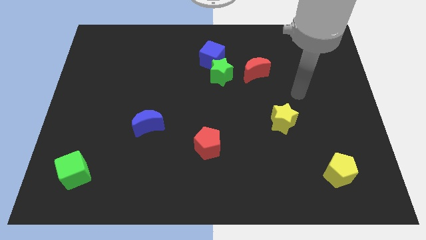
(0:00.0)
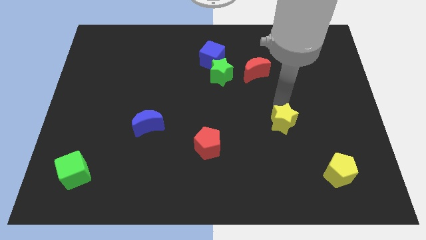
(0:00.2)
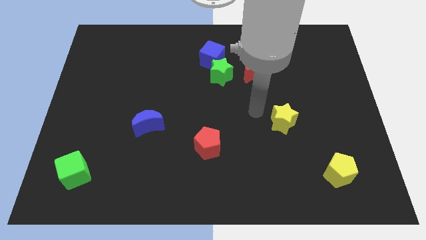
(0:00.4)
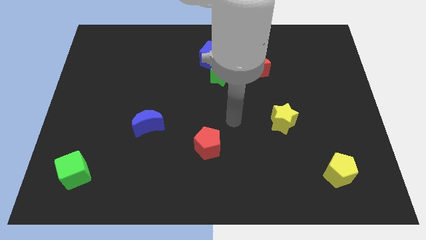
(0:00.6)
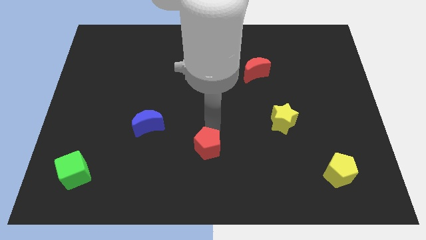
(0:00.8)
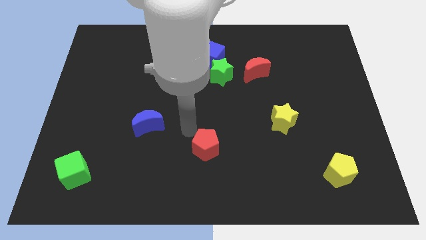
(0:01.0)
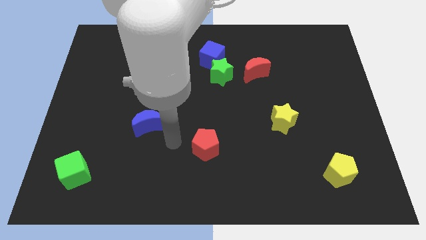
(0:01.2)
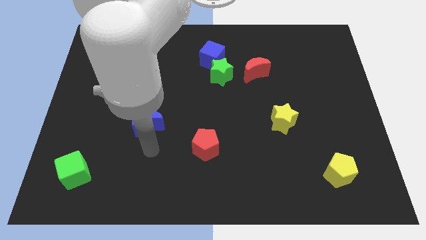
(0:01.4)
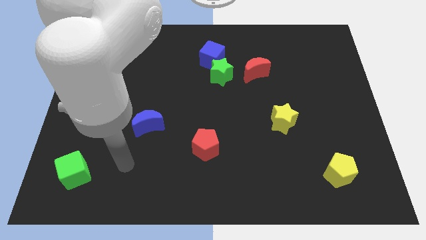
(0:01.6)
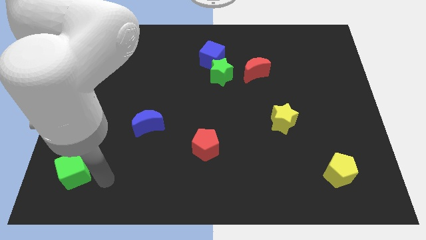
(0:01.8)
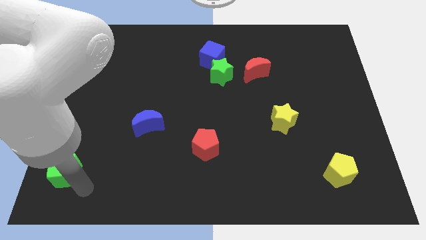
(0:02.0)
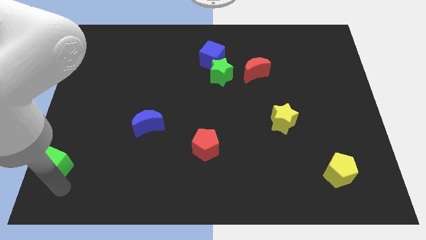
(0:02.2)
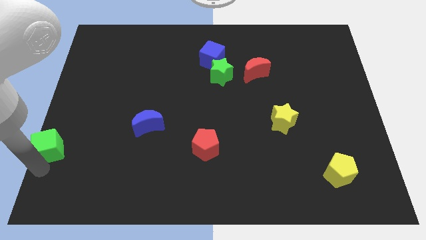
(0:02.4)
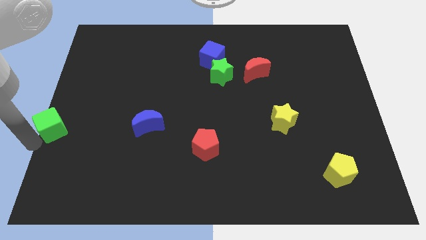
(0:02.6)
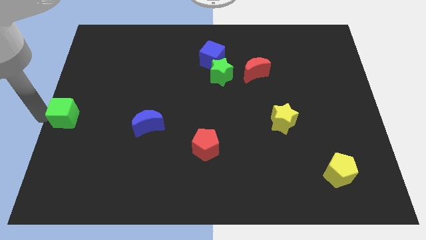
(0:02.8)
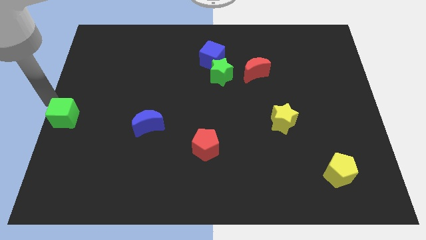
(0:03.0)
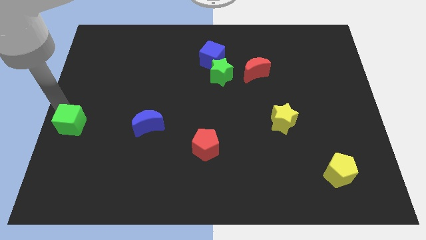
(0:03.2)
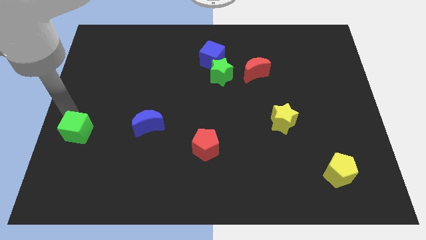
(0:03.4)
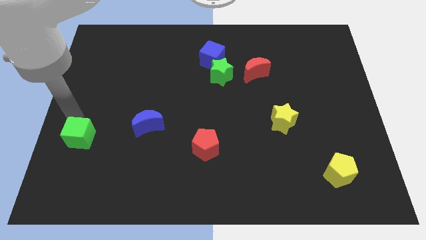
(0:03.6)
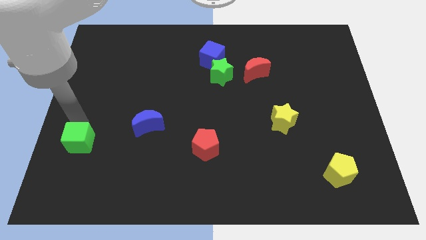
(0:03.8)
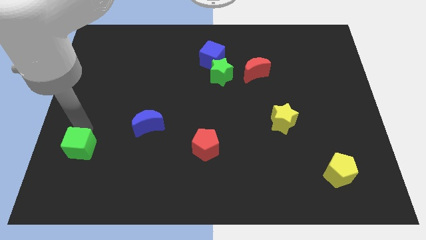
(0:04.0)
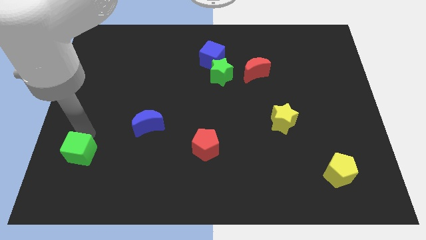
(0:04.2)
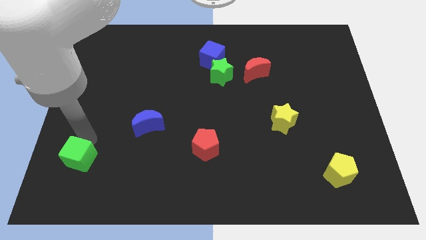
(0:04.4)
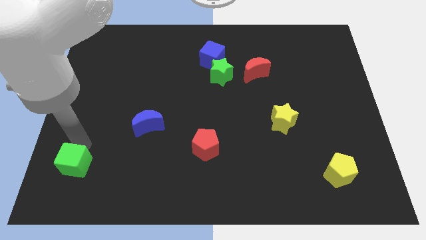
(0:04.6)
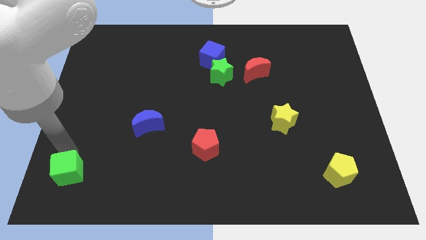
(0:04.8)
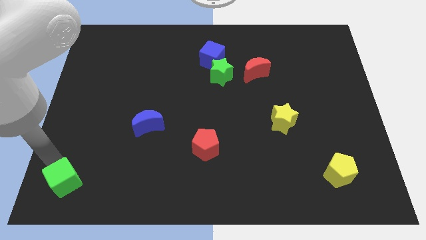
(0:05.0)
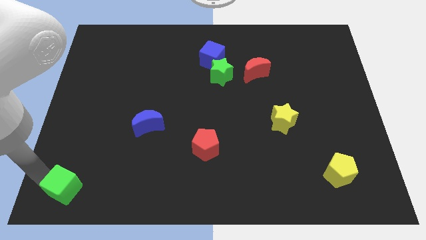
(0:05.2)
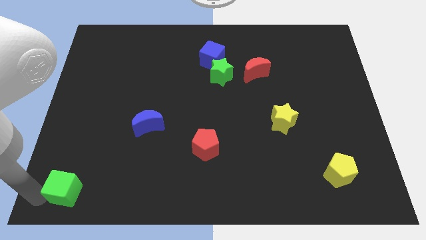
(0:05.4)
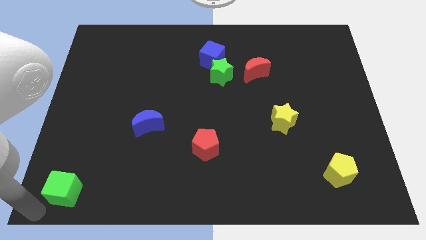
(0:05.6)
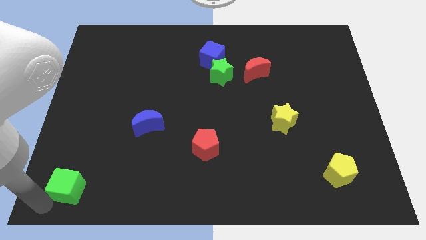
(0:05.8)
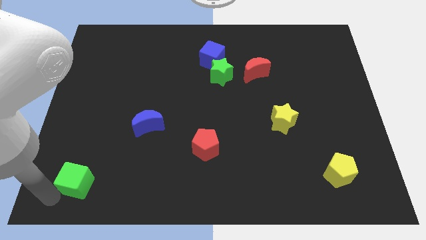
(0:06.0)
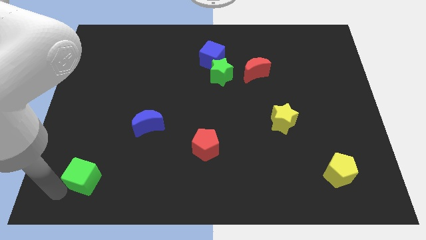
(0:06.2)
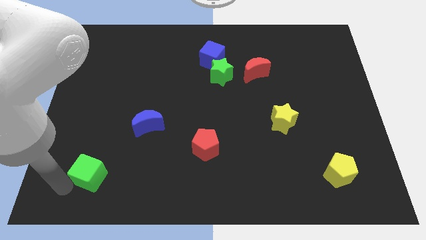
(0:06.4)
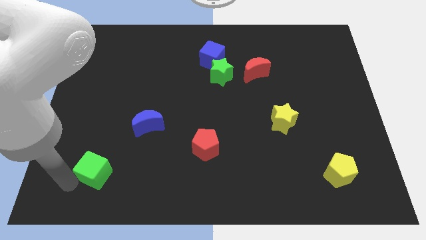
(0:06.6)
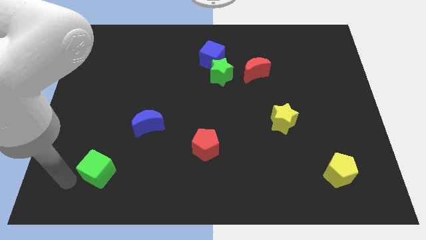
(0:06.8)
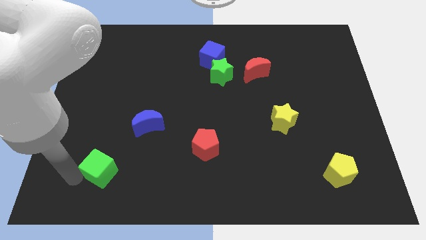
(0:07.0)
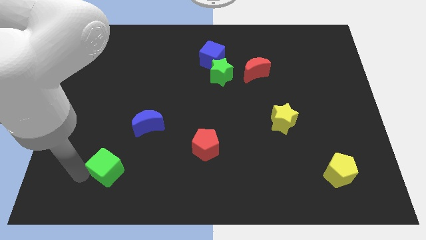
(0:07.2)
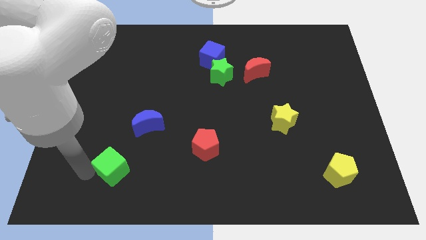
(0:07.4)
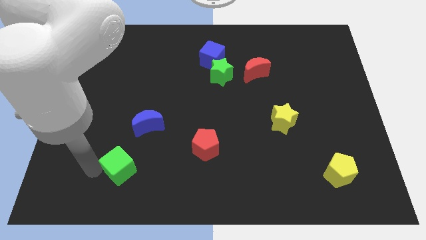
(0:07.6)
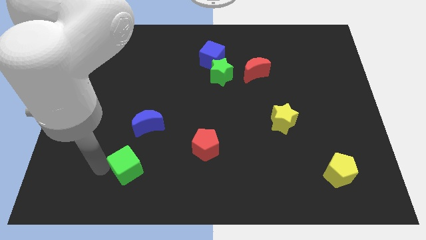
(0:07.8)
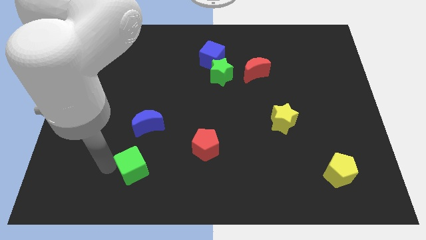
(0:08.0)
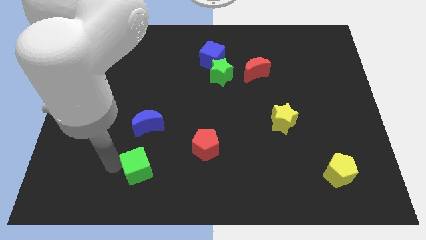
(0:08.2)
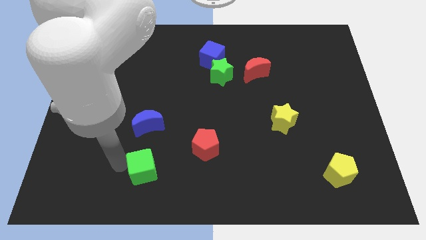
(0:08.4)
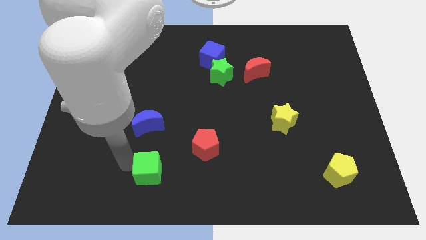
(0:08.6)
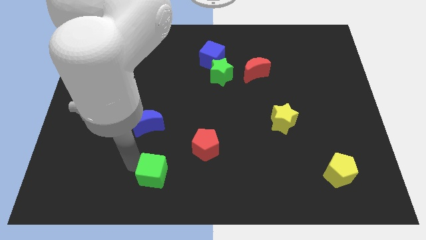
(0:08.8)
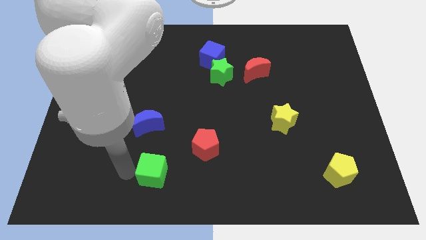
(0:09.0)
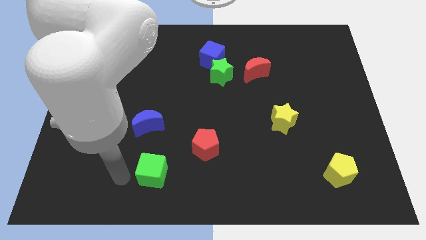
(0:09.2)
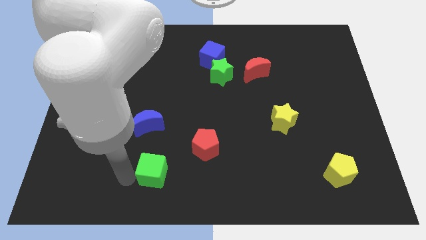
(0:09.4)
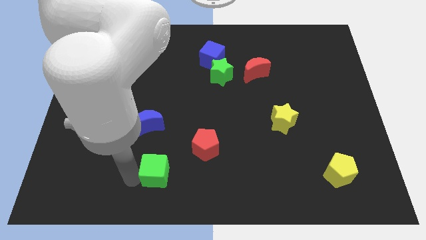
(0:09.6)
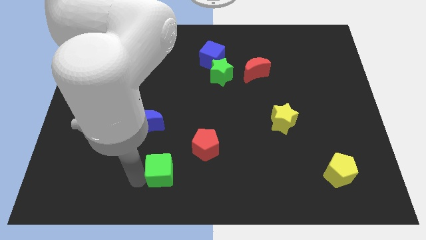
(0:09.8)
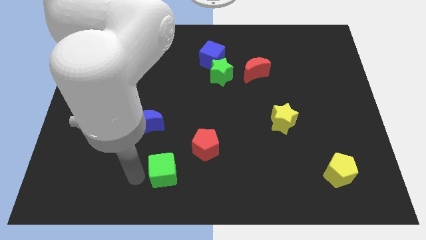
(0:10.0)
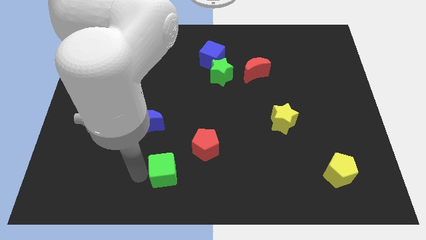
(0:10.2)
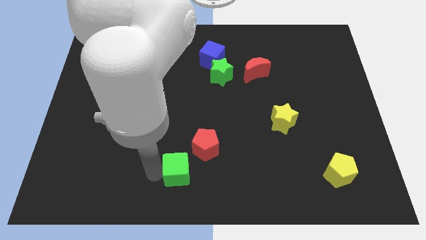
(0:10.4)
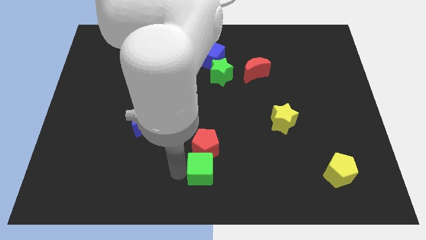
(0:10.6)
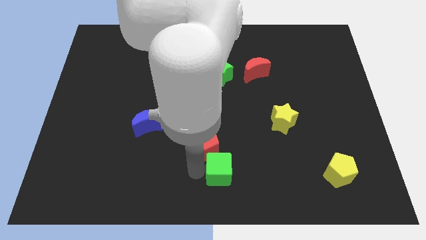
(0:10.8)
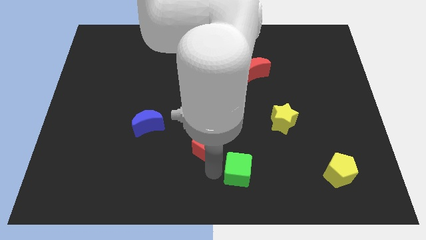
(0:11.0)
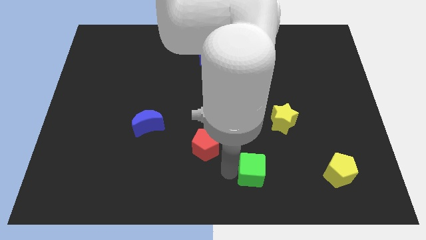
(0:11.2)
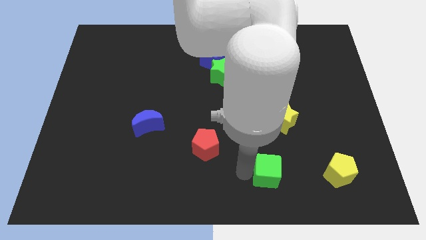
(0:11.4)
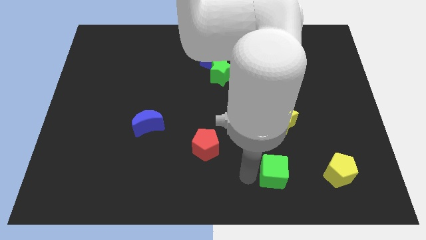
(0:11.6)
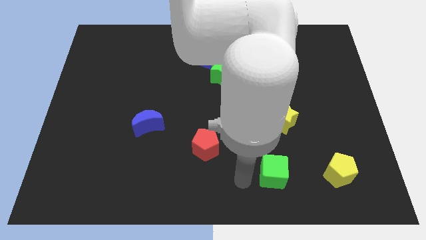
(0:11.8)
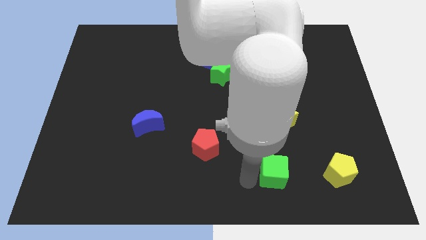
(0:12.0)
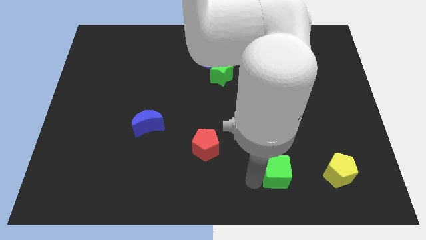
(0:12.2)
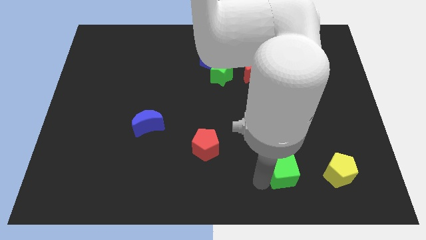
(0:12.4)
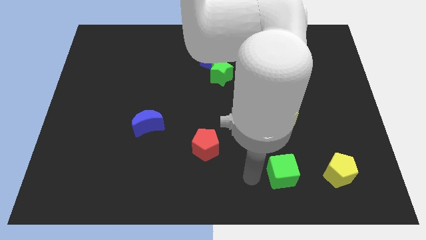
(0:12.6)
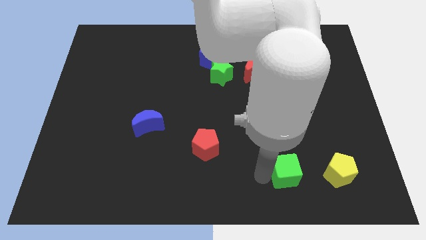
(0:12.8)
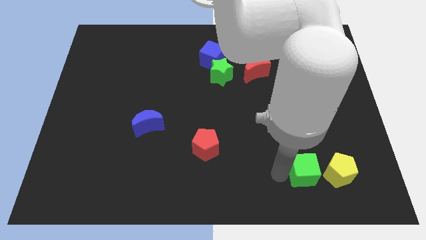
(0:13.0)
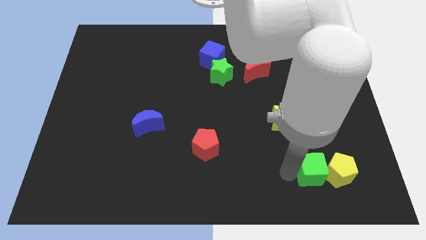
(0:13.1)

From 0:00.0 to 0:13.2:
slide the green cube to the yellow pentagon

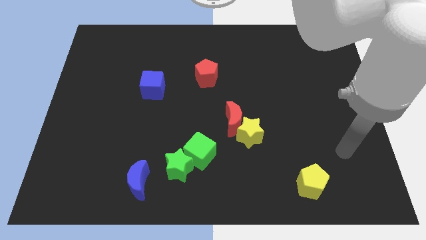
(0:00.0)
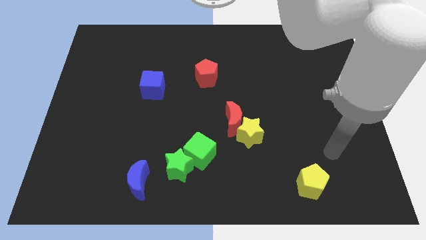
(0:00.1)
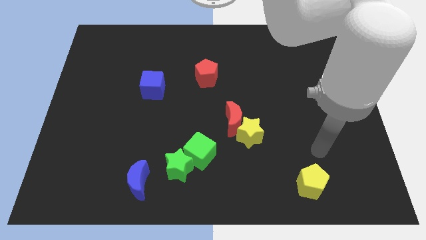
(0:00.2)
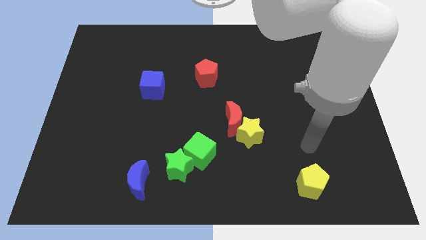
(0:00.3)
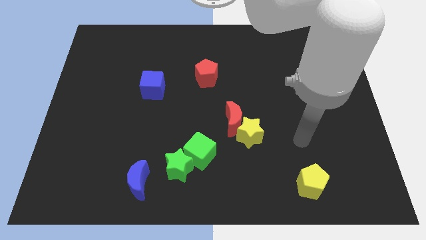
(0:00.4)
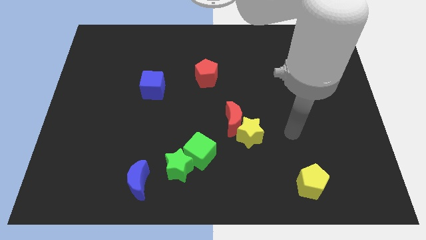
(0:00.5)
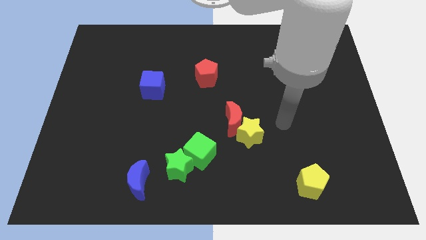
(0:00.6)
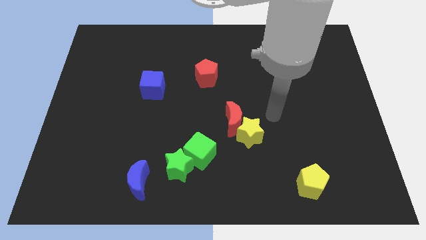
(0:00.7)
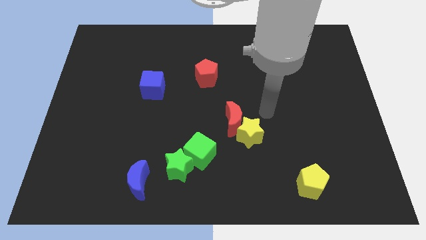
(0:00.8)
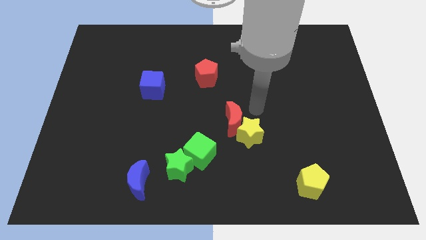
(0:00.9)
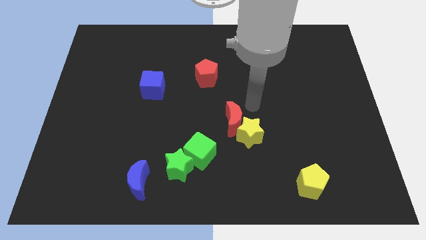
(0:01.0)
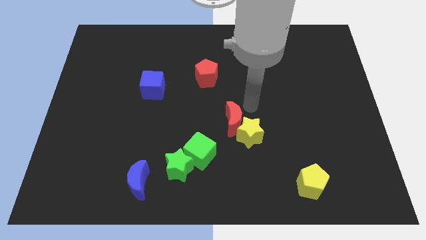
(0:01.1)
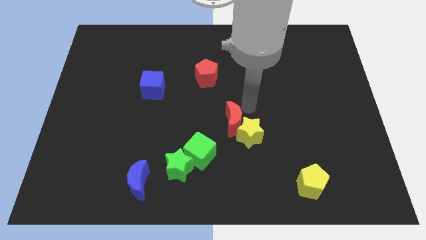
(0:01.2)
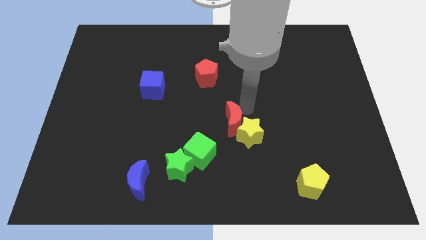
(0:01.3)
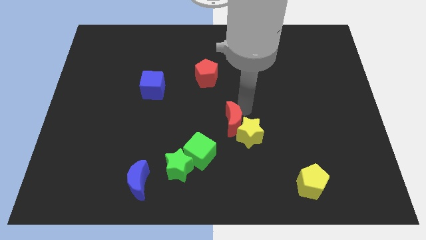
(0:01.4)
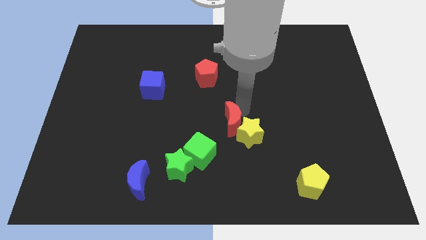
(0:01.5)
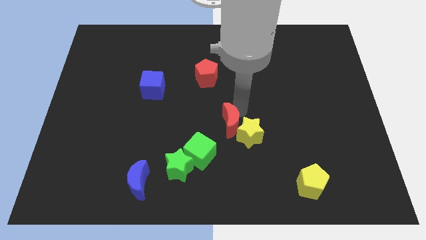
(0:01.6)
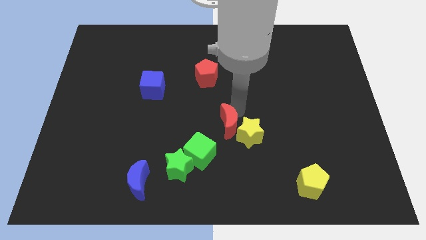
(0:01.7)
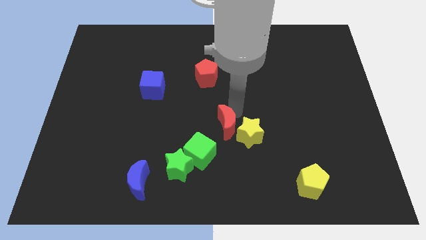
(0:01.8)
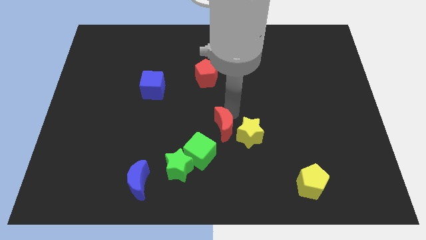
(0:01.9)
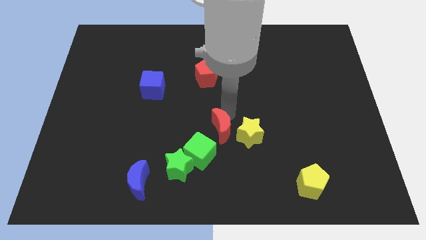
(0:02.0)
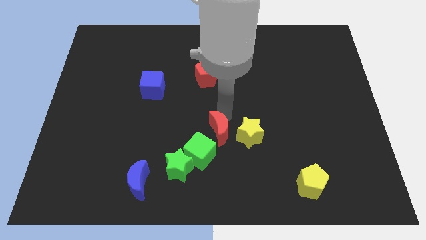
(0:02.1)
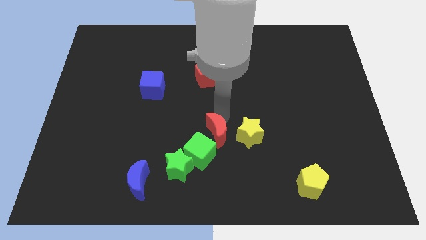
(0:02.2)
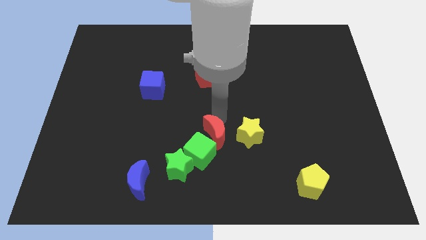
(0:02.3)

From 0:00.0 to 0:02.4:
put the red moon next to the green cube
